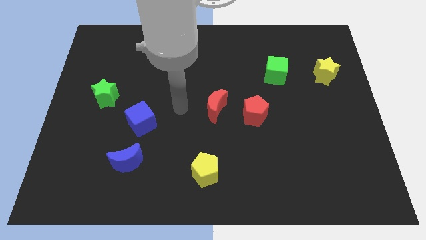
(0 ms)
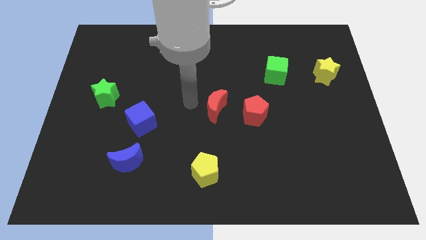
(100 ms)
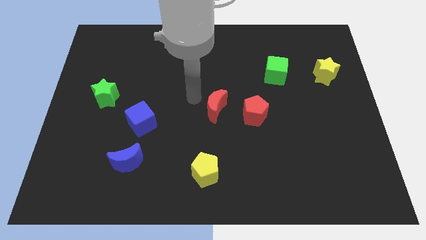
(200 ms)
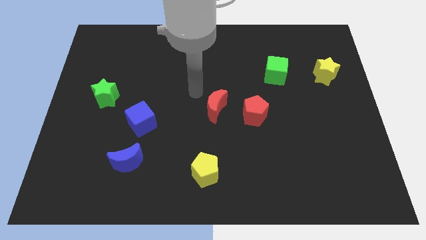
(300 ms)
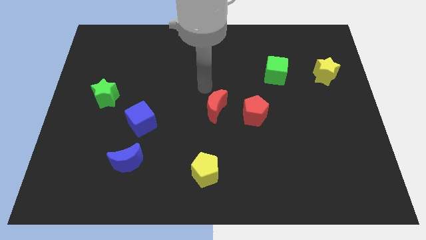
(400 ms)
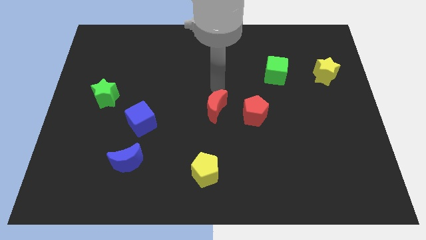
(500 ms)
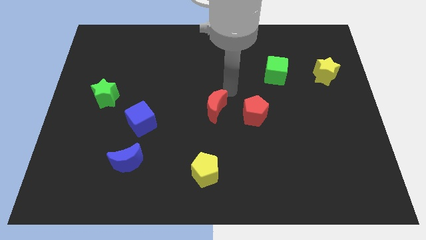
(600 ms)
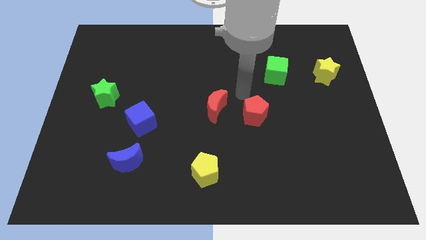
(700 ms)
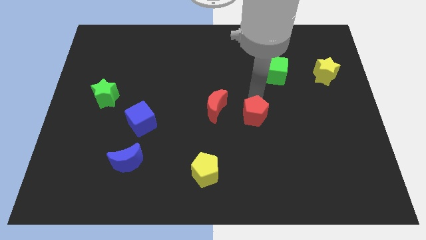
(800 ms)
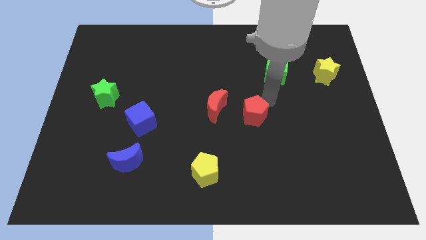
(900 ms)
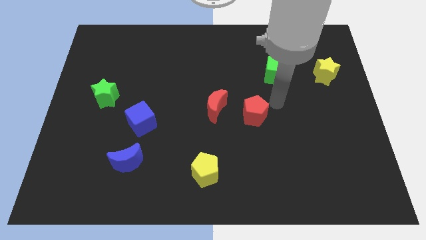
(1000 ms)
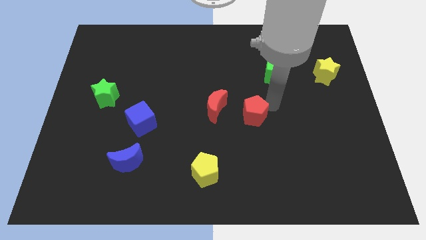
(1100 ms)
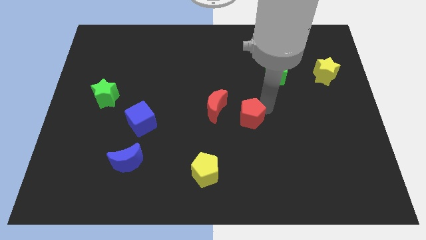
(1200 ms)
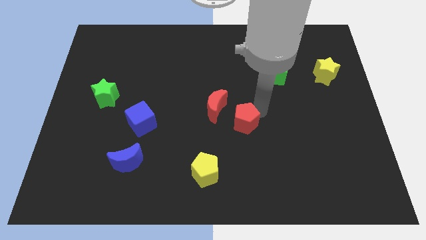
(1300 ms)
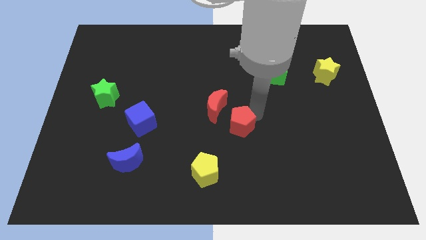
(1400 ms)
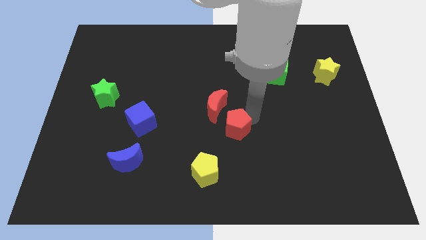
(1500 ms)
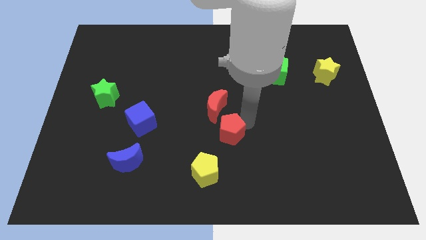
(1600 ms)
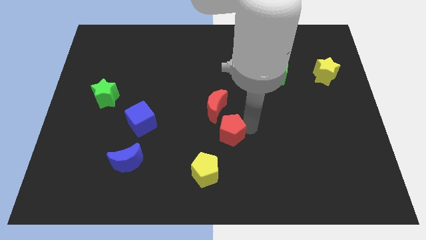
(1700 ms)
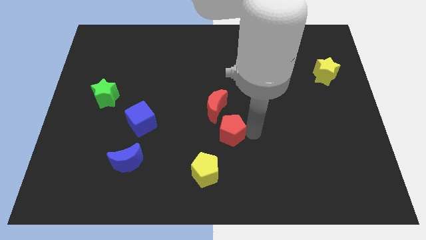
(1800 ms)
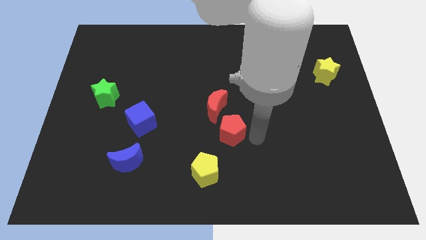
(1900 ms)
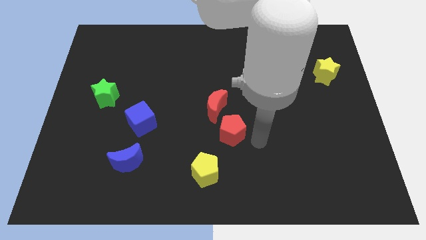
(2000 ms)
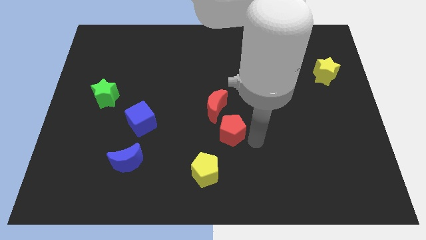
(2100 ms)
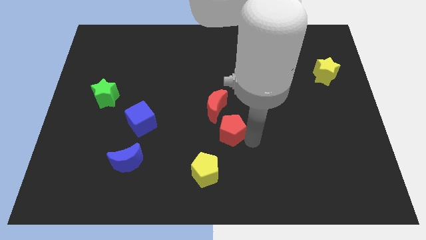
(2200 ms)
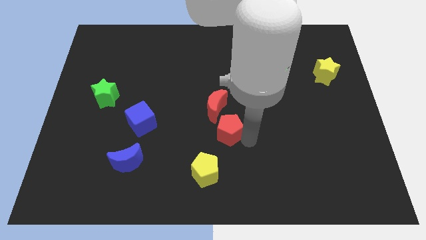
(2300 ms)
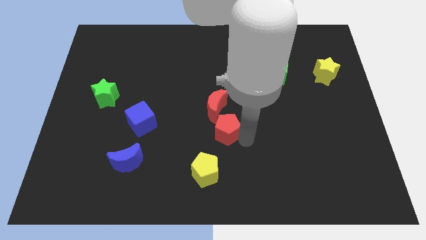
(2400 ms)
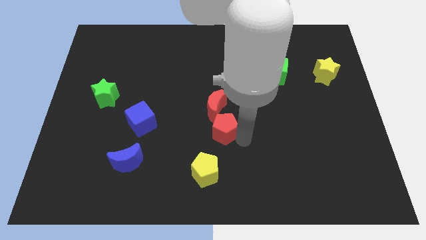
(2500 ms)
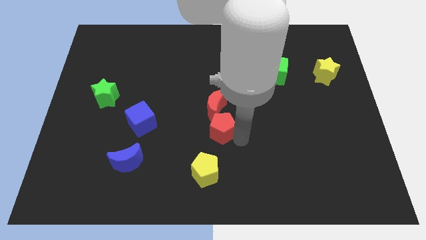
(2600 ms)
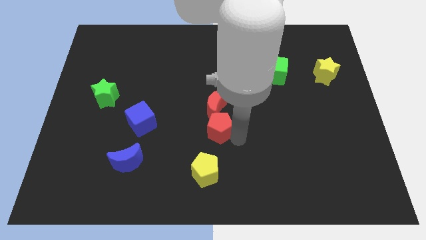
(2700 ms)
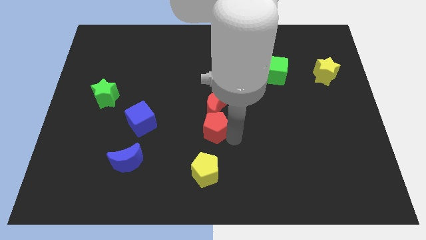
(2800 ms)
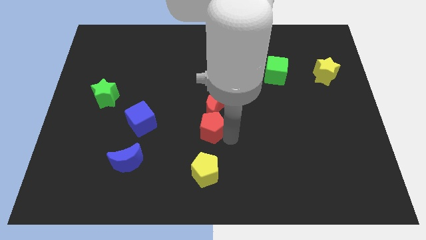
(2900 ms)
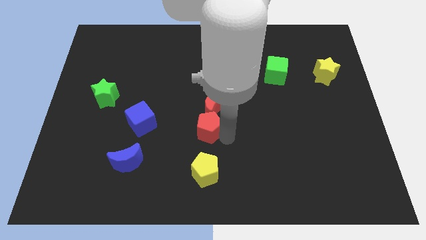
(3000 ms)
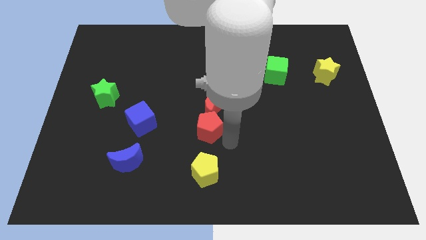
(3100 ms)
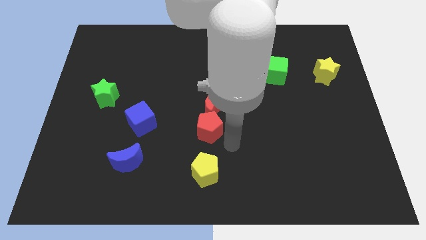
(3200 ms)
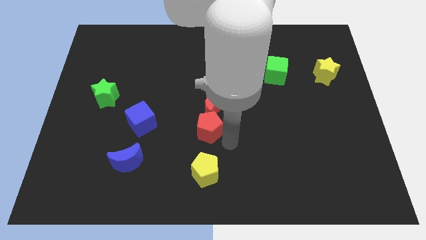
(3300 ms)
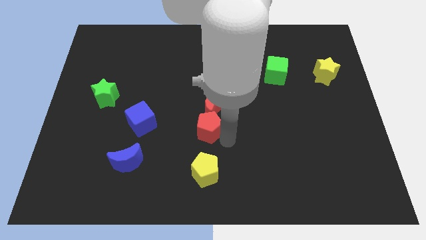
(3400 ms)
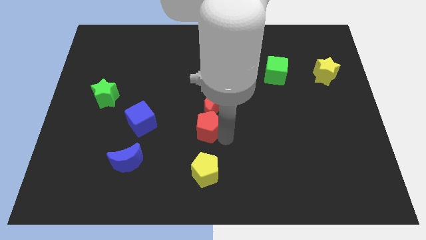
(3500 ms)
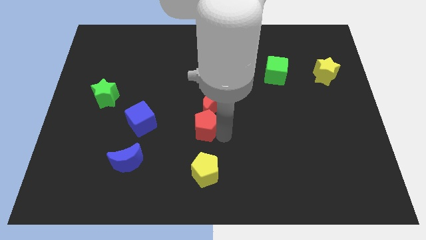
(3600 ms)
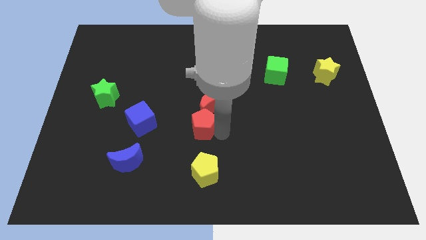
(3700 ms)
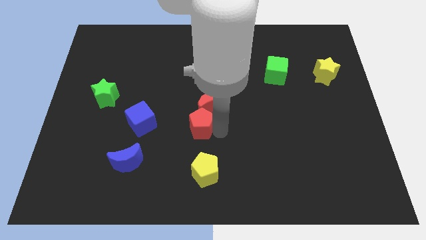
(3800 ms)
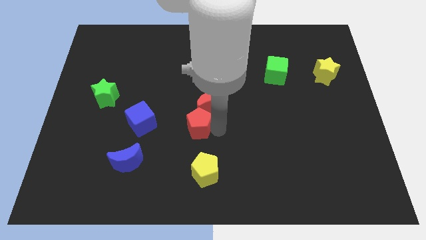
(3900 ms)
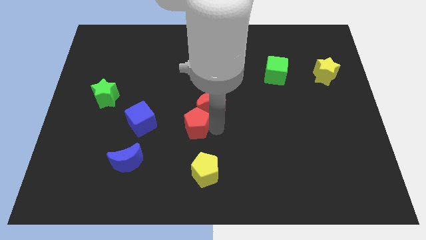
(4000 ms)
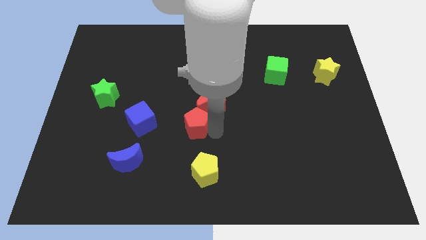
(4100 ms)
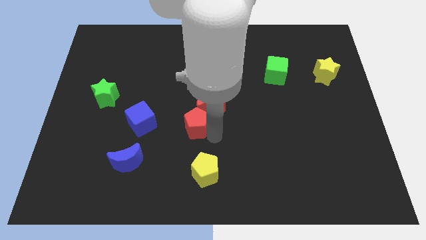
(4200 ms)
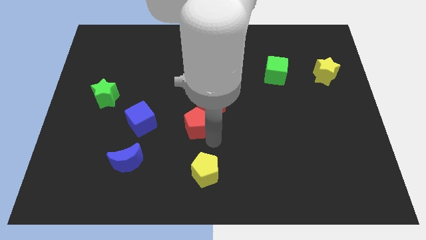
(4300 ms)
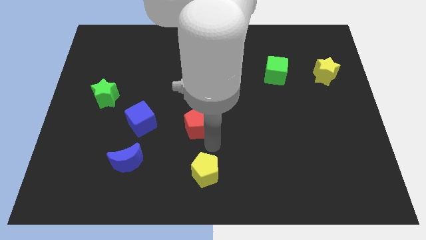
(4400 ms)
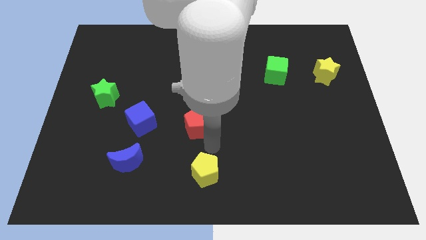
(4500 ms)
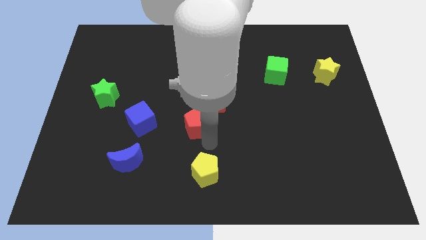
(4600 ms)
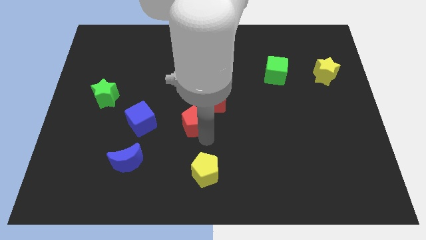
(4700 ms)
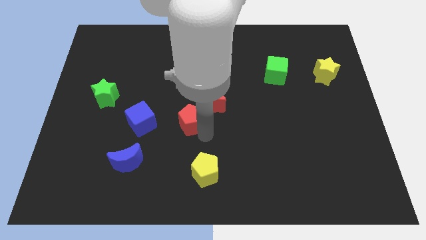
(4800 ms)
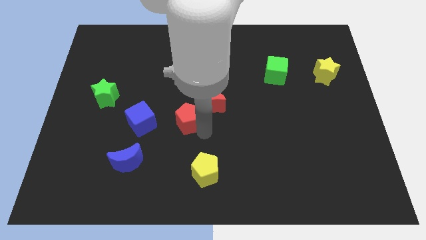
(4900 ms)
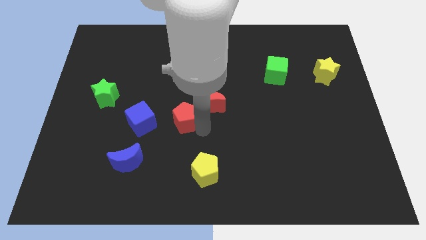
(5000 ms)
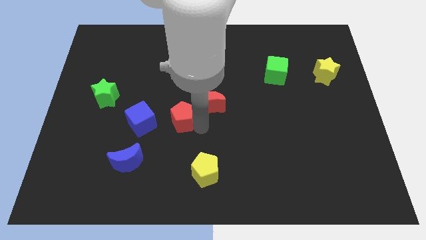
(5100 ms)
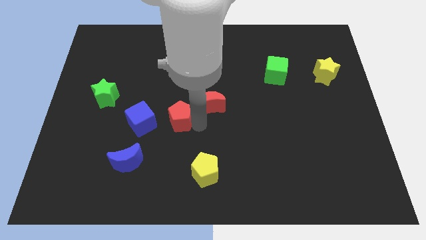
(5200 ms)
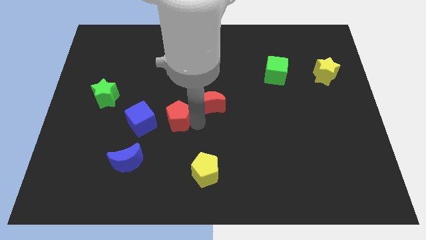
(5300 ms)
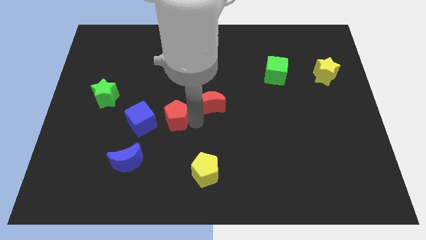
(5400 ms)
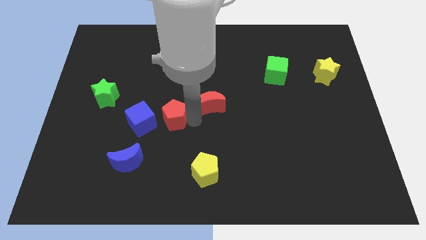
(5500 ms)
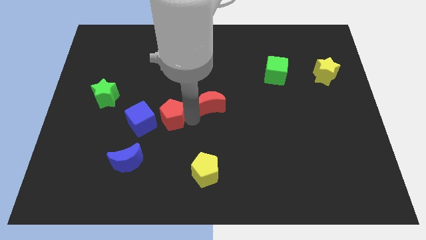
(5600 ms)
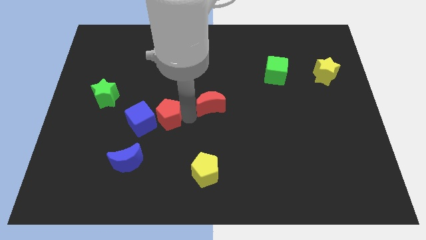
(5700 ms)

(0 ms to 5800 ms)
push the red pentagon to the left

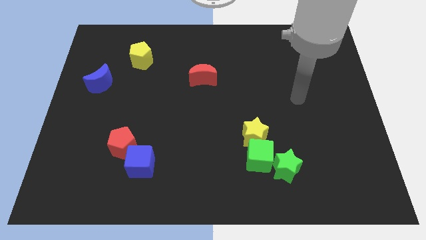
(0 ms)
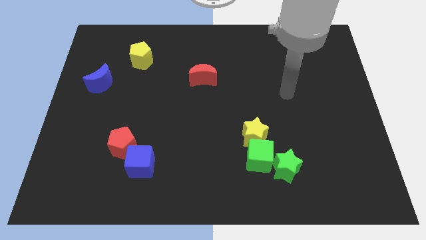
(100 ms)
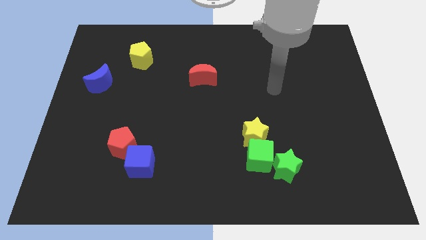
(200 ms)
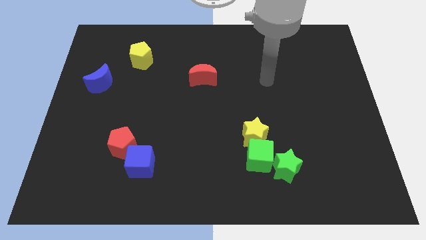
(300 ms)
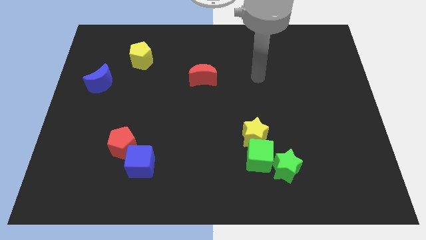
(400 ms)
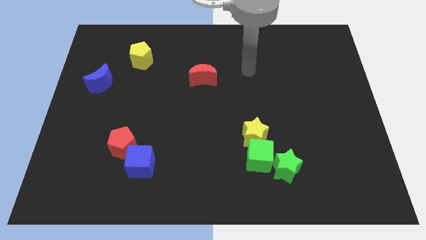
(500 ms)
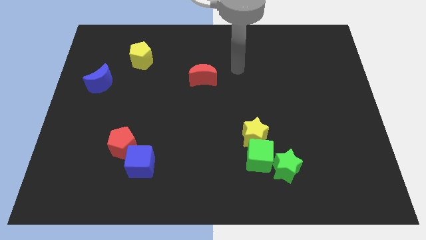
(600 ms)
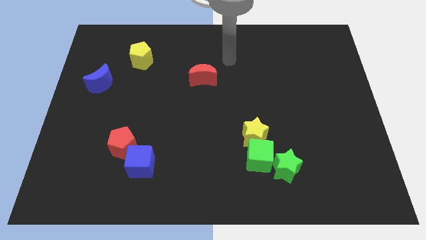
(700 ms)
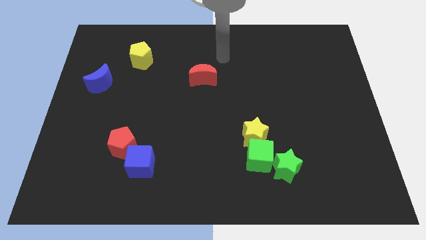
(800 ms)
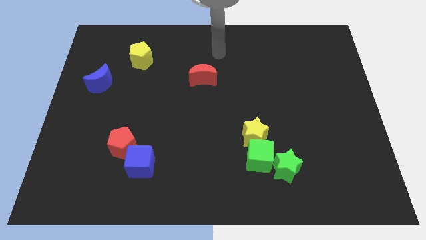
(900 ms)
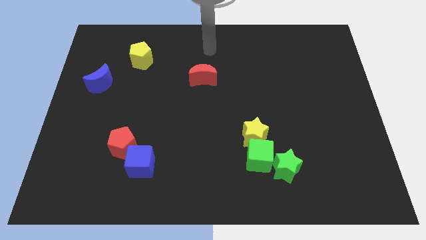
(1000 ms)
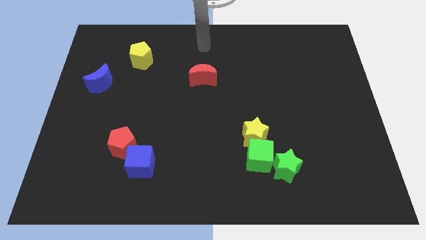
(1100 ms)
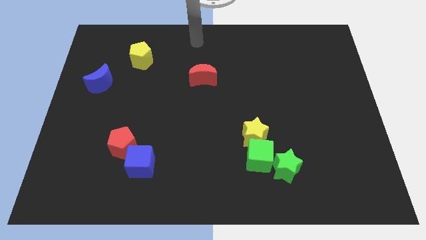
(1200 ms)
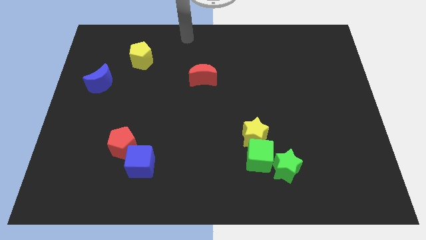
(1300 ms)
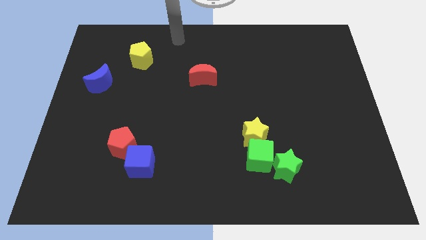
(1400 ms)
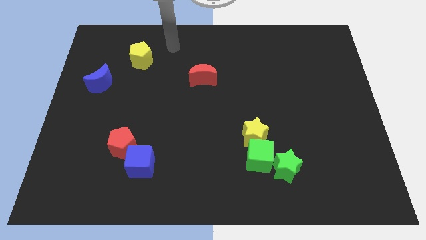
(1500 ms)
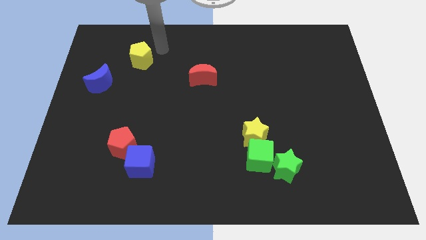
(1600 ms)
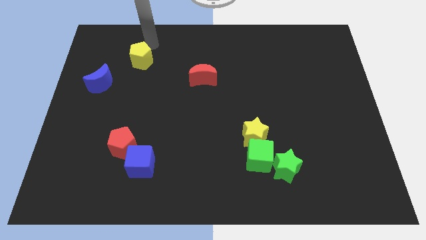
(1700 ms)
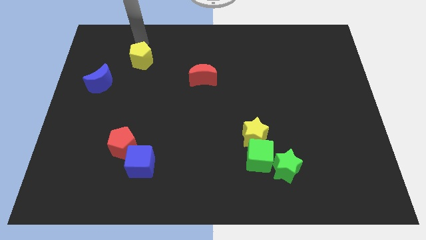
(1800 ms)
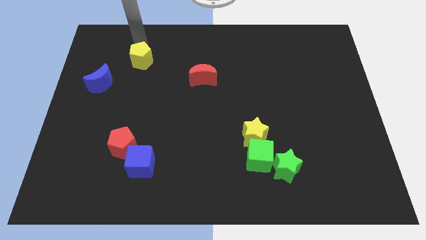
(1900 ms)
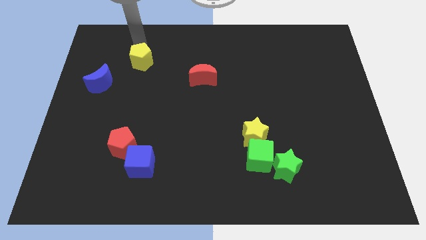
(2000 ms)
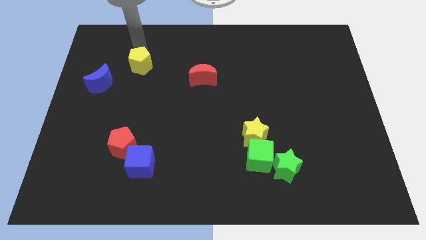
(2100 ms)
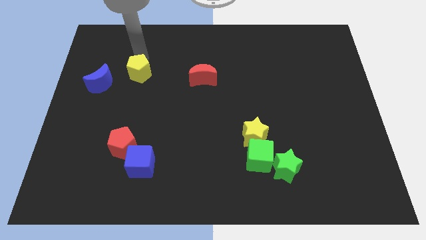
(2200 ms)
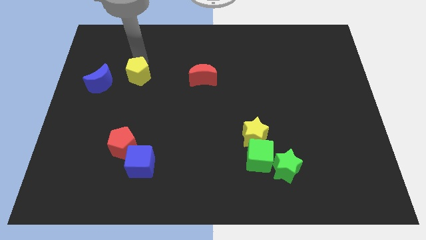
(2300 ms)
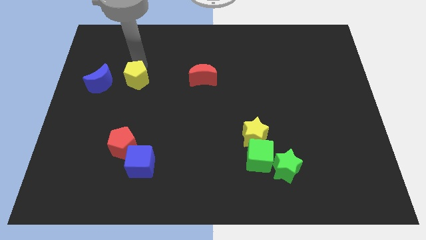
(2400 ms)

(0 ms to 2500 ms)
slide the yellow pentagon a bit down
